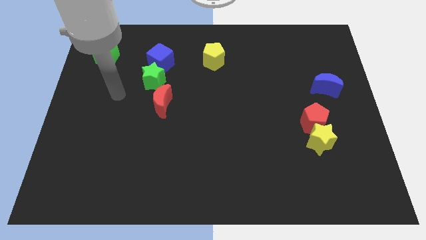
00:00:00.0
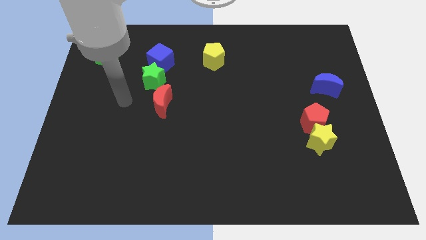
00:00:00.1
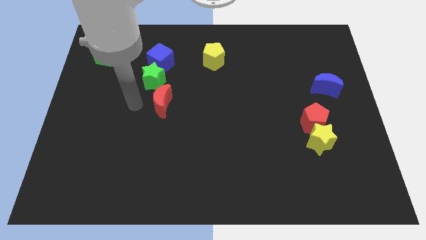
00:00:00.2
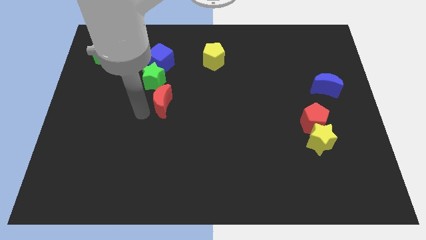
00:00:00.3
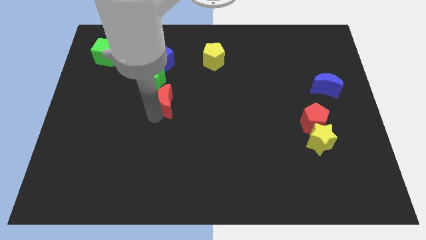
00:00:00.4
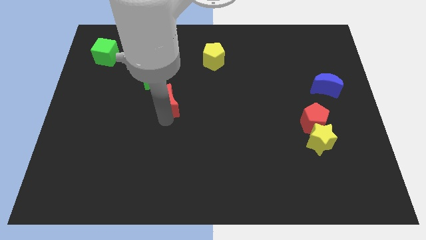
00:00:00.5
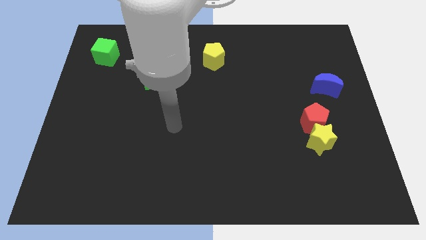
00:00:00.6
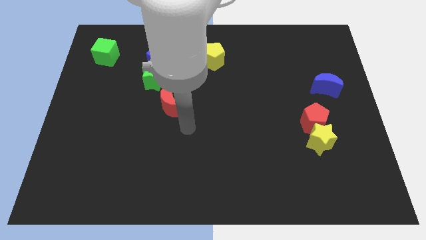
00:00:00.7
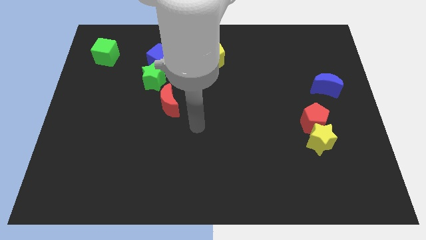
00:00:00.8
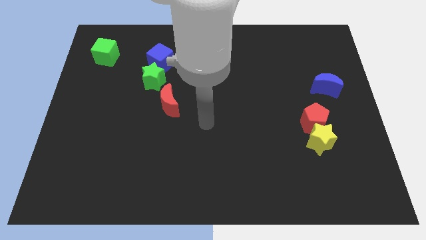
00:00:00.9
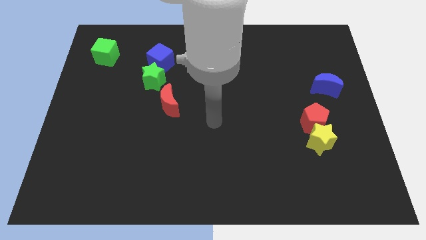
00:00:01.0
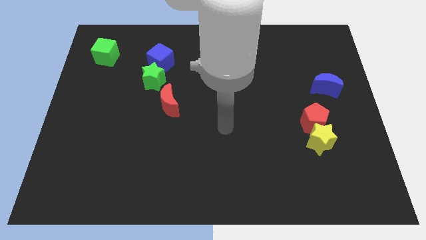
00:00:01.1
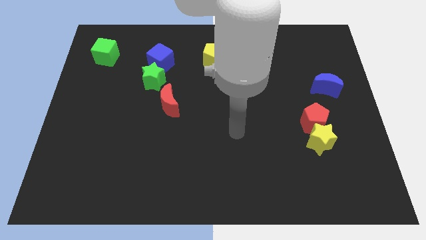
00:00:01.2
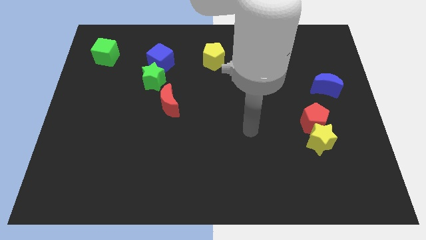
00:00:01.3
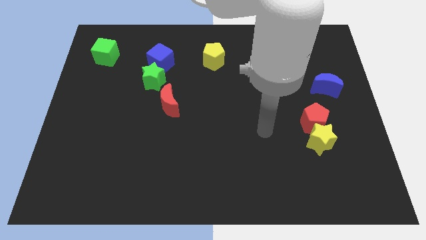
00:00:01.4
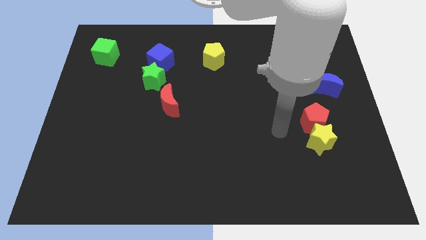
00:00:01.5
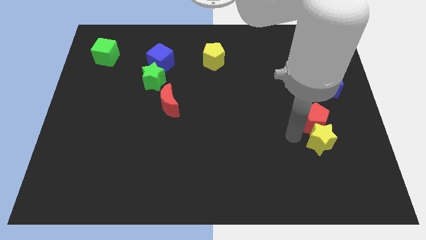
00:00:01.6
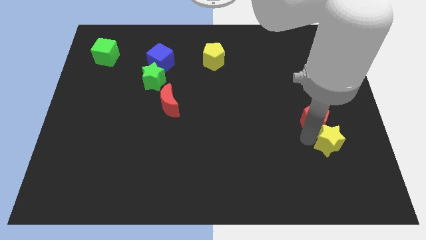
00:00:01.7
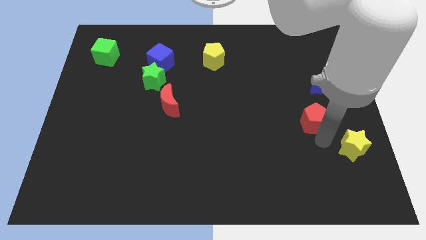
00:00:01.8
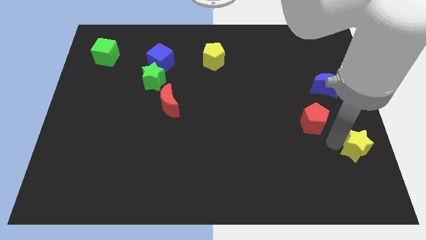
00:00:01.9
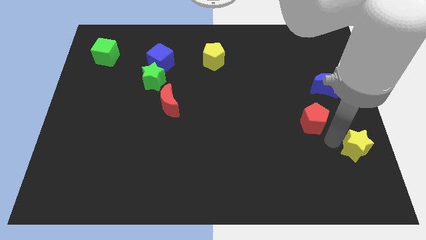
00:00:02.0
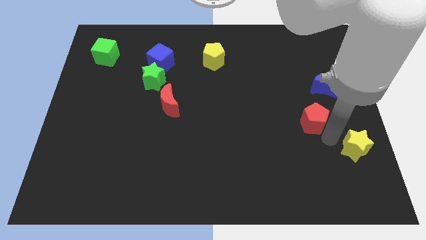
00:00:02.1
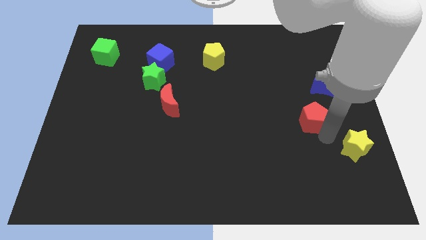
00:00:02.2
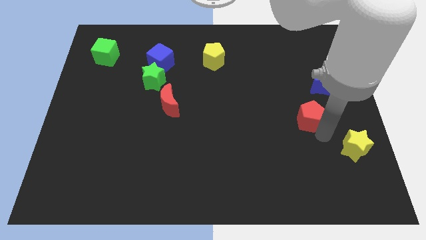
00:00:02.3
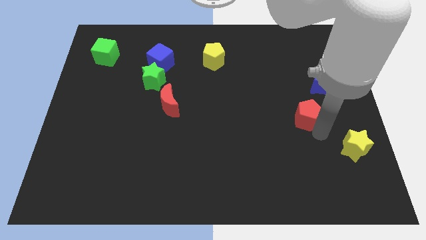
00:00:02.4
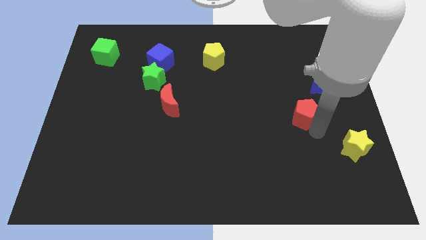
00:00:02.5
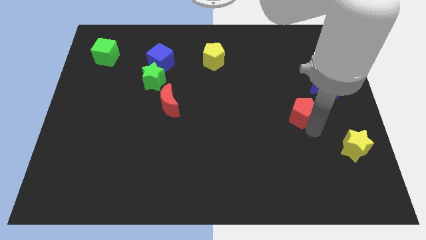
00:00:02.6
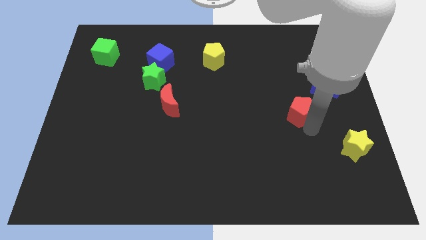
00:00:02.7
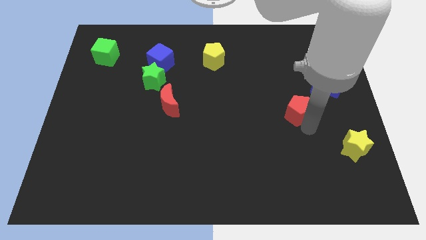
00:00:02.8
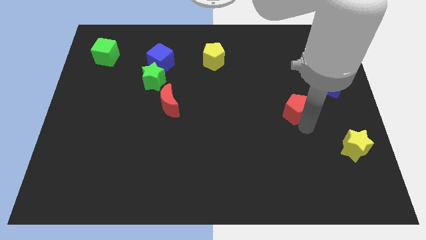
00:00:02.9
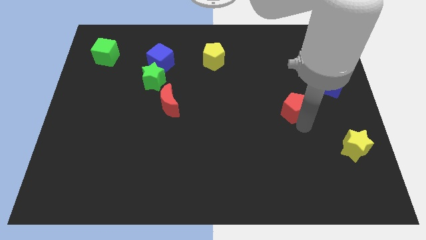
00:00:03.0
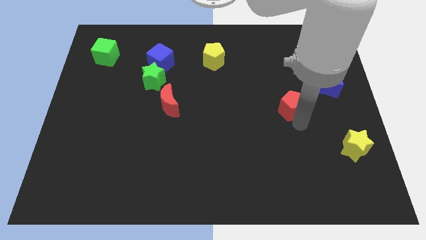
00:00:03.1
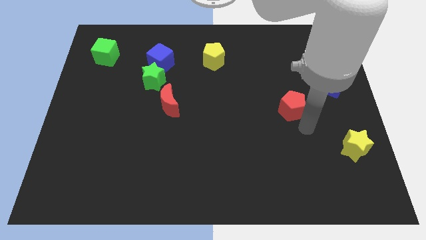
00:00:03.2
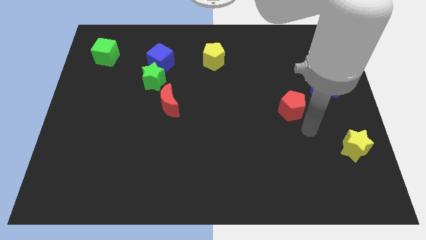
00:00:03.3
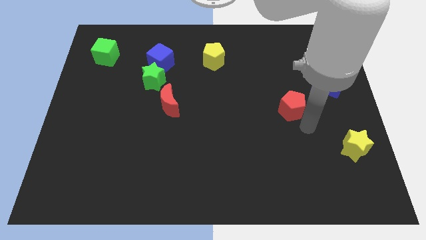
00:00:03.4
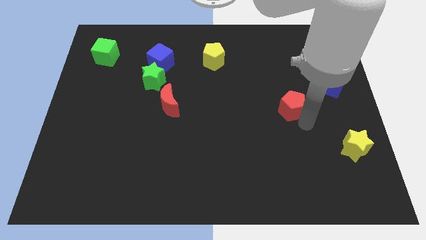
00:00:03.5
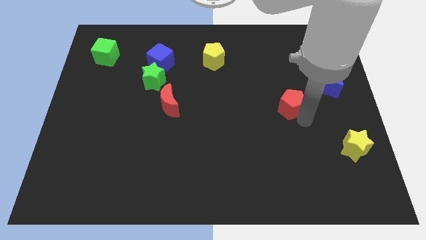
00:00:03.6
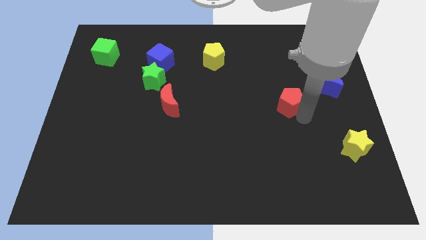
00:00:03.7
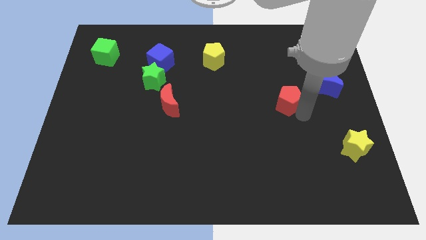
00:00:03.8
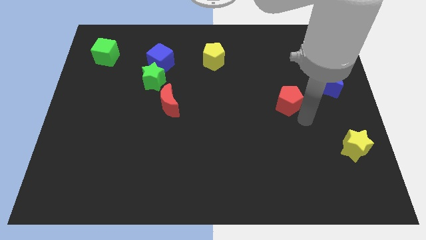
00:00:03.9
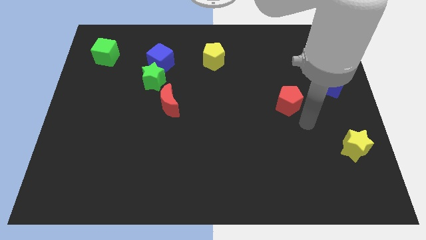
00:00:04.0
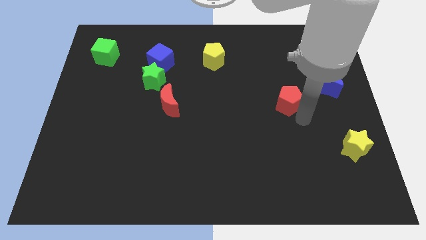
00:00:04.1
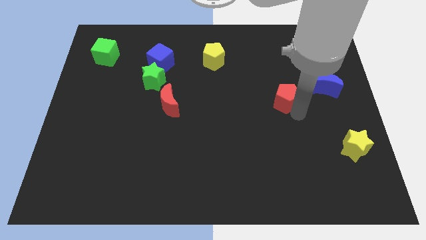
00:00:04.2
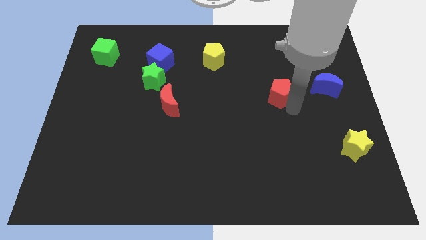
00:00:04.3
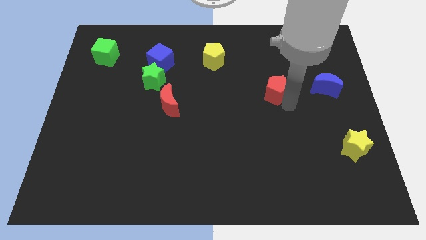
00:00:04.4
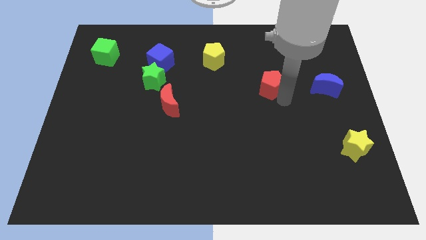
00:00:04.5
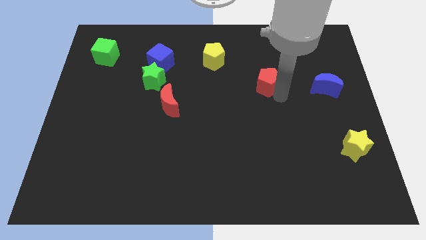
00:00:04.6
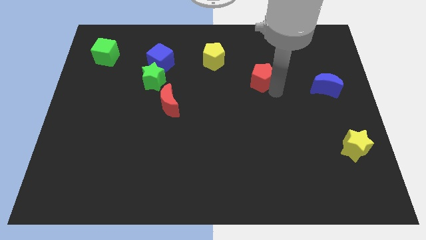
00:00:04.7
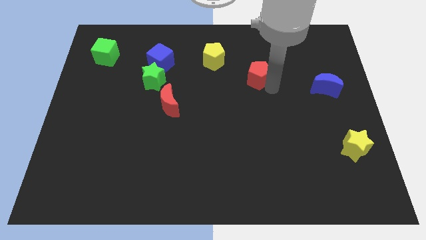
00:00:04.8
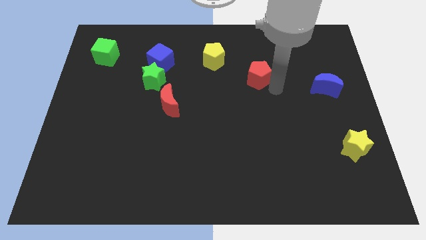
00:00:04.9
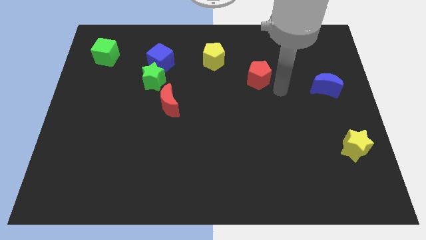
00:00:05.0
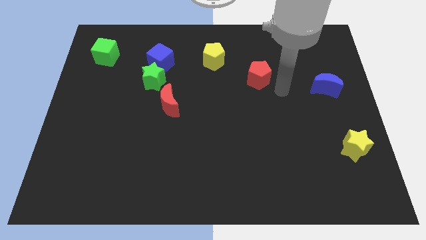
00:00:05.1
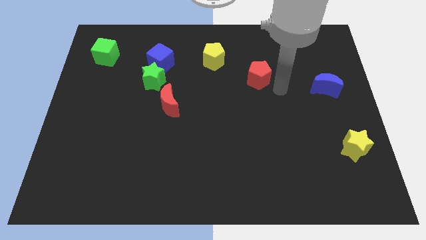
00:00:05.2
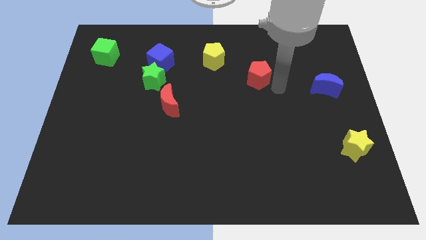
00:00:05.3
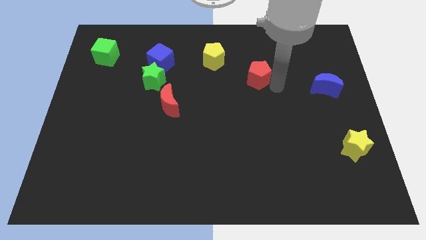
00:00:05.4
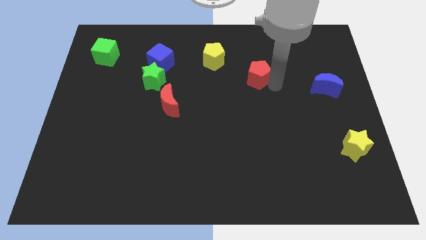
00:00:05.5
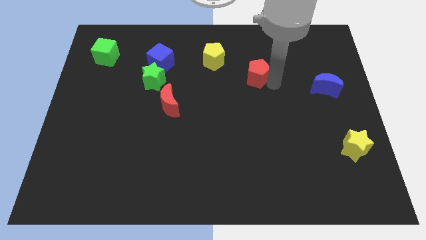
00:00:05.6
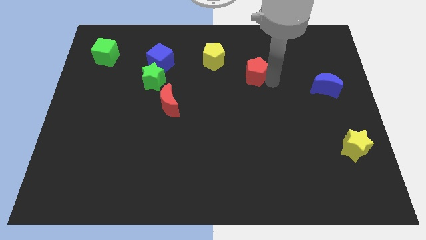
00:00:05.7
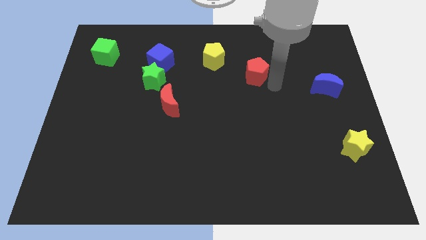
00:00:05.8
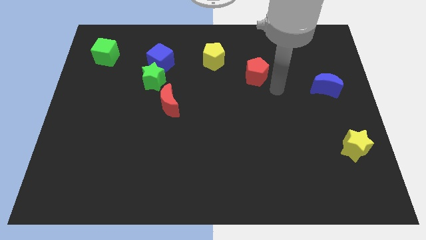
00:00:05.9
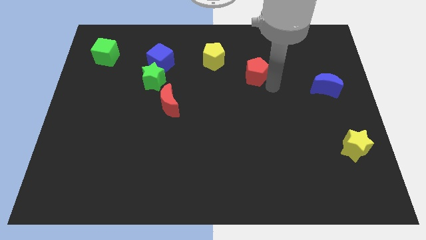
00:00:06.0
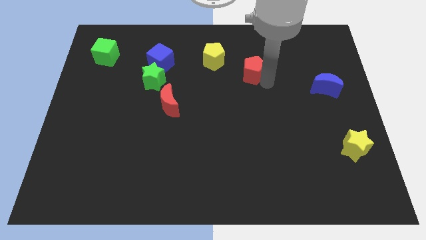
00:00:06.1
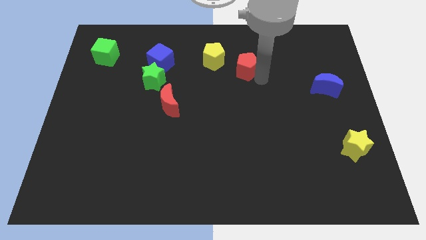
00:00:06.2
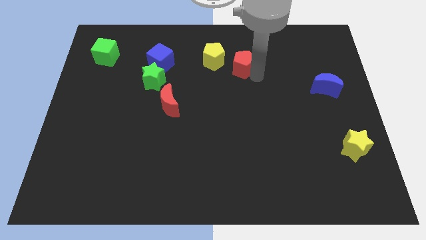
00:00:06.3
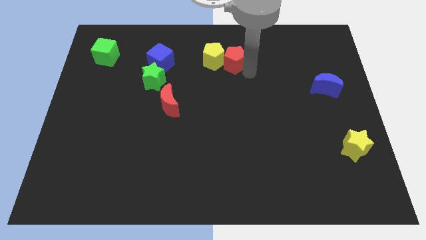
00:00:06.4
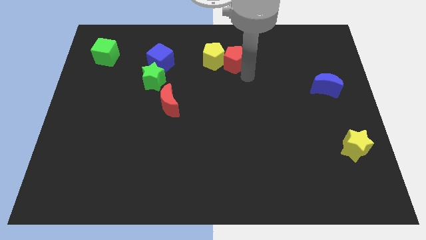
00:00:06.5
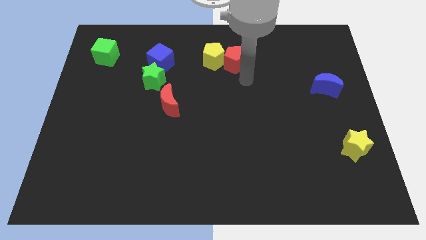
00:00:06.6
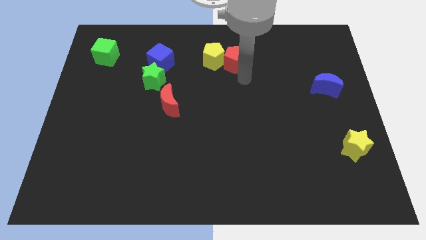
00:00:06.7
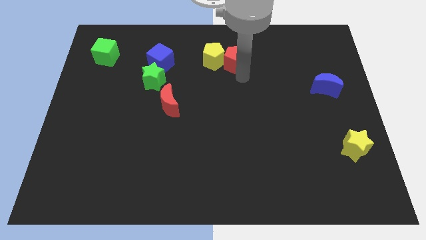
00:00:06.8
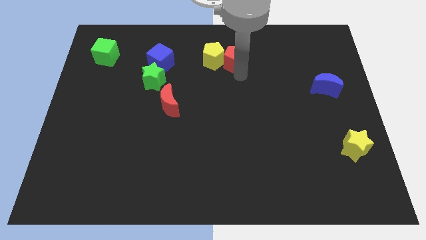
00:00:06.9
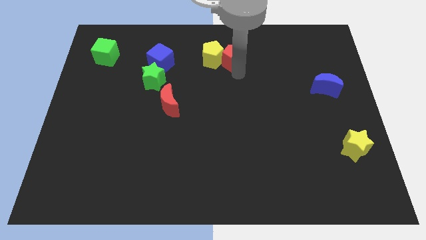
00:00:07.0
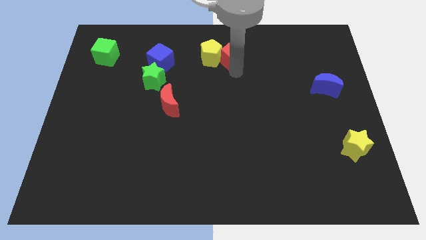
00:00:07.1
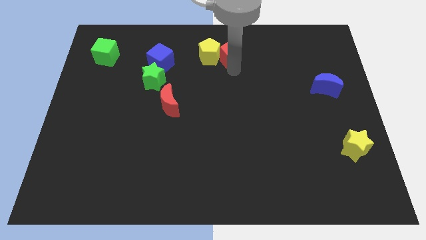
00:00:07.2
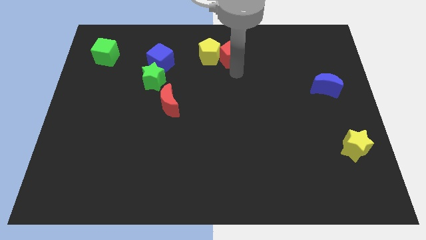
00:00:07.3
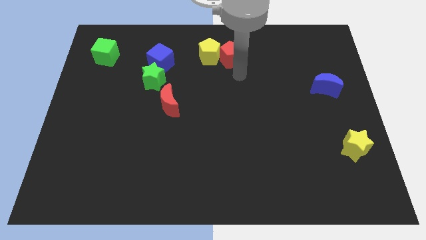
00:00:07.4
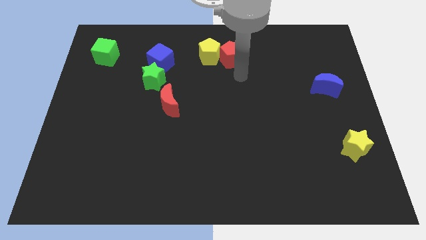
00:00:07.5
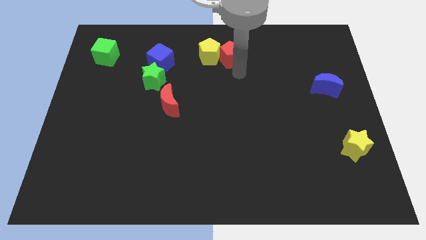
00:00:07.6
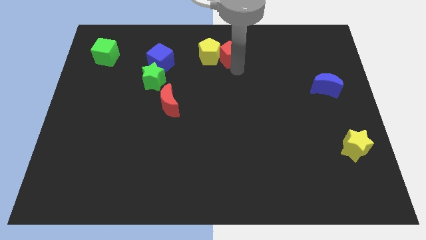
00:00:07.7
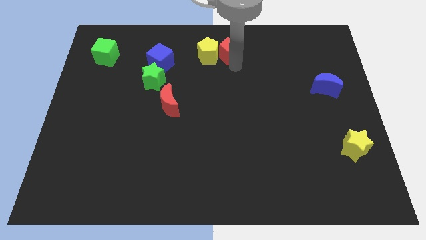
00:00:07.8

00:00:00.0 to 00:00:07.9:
push the red pentagon to the top
